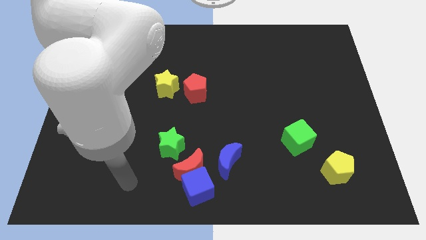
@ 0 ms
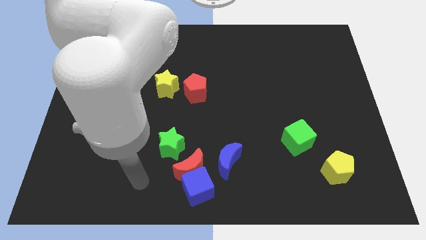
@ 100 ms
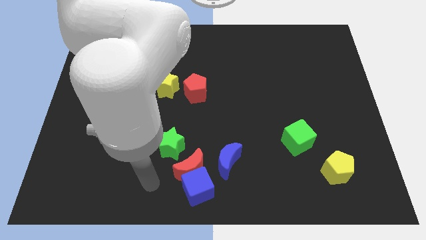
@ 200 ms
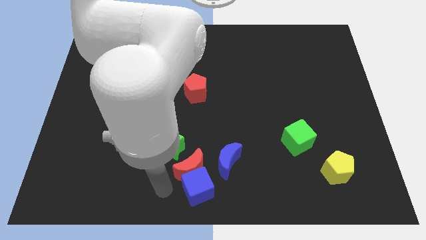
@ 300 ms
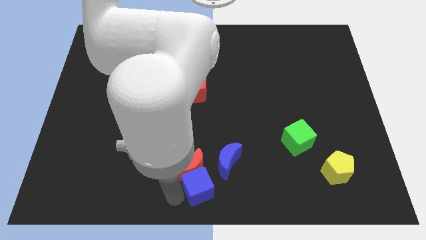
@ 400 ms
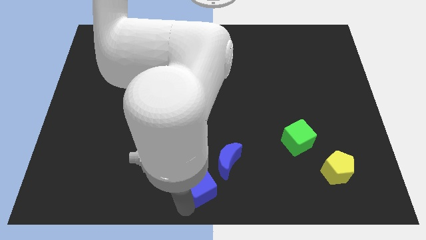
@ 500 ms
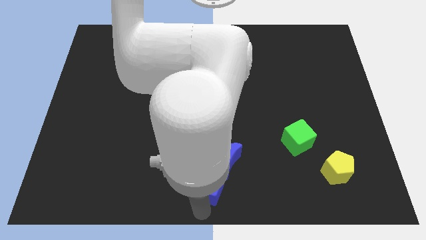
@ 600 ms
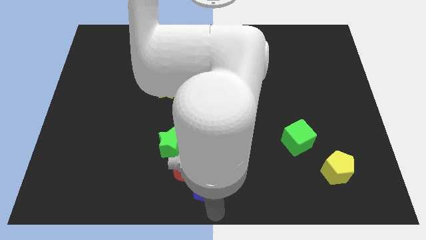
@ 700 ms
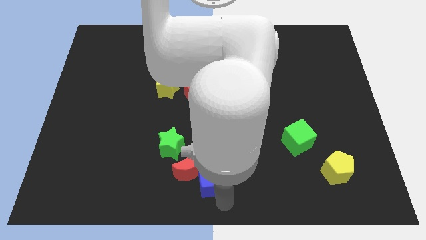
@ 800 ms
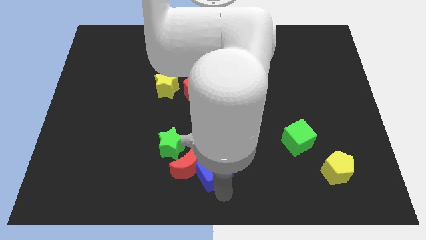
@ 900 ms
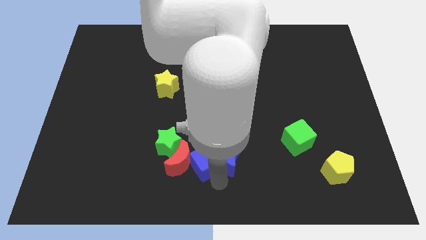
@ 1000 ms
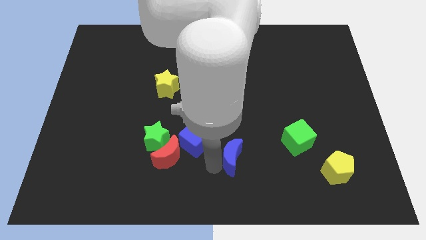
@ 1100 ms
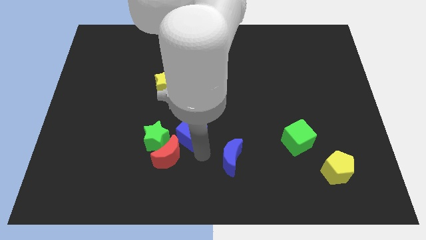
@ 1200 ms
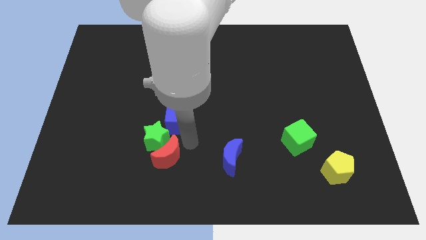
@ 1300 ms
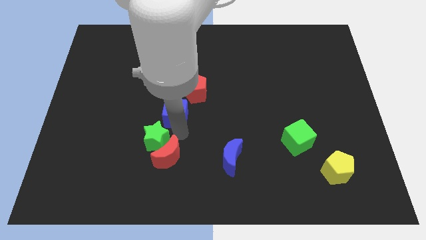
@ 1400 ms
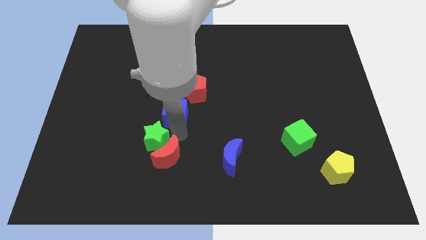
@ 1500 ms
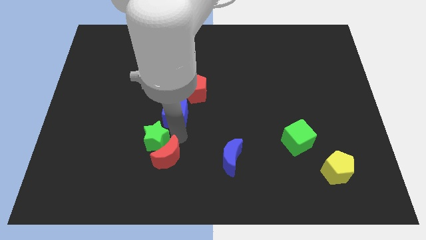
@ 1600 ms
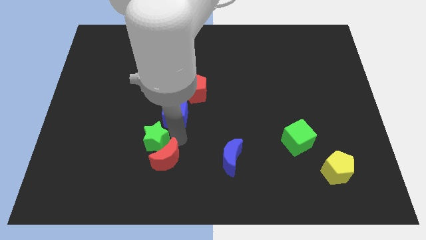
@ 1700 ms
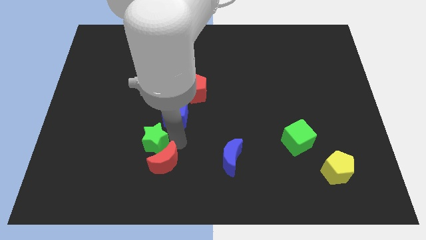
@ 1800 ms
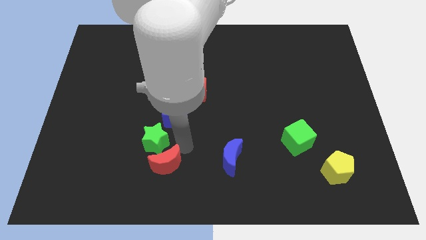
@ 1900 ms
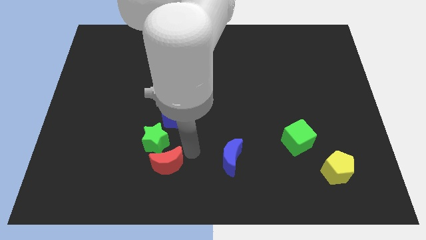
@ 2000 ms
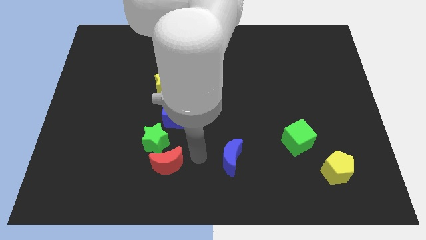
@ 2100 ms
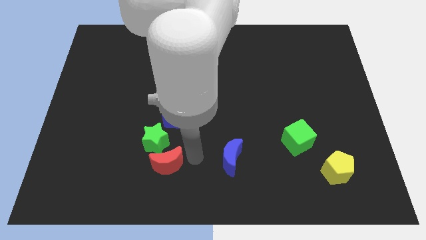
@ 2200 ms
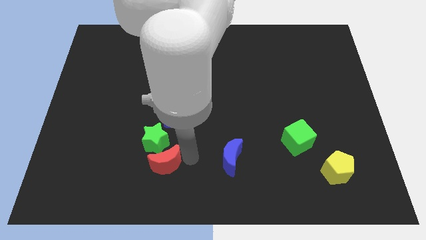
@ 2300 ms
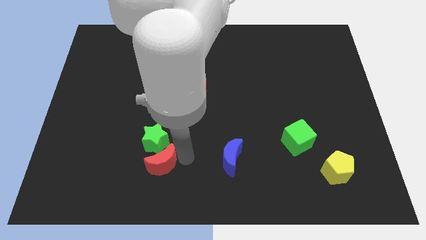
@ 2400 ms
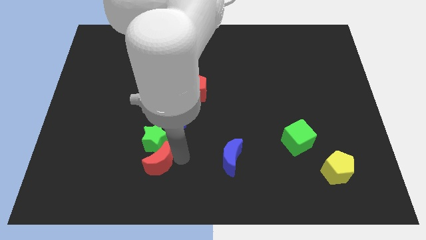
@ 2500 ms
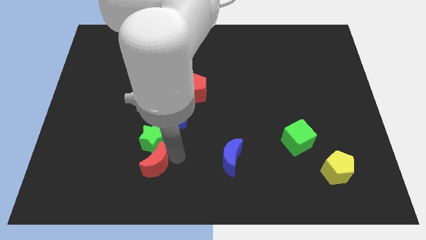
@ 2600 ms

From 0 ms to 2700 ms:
push the red moon left slightly

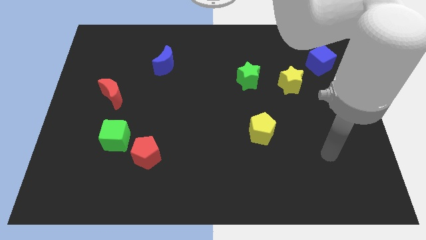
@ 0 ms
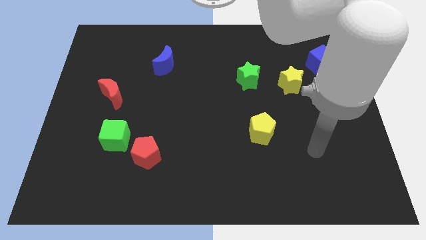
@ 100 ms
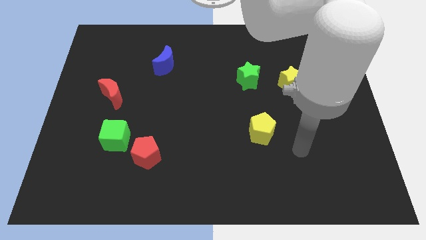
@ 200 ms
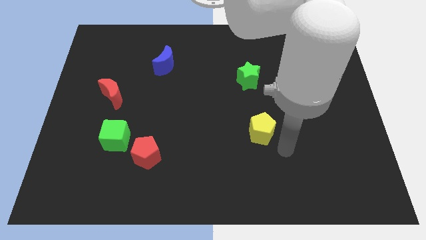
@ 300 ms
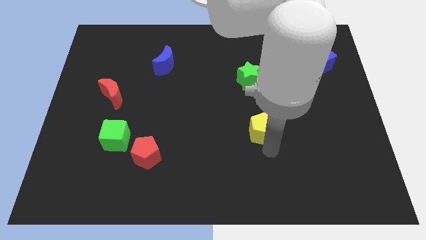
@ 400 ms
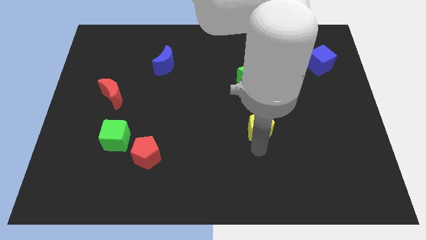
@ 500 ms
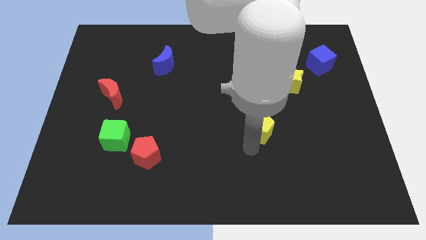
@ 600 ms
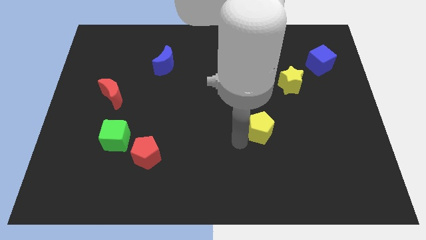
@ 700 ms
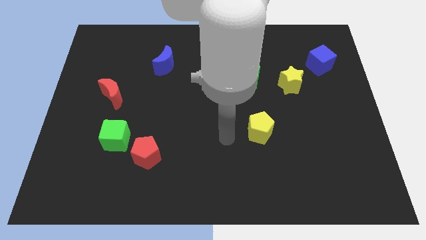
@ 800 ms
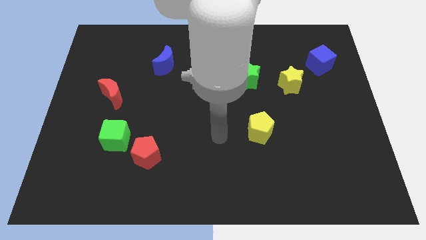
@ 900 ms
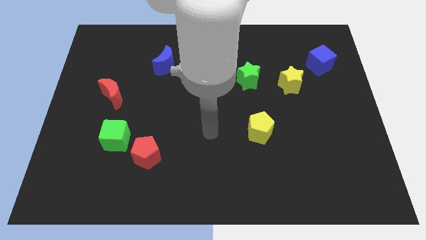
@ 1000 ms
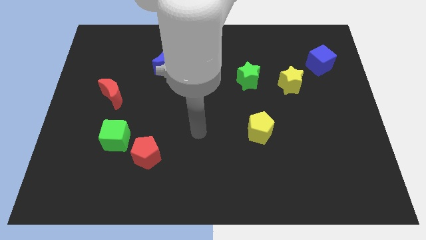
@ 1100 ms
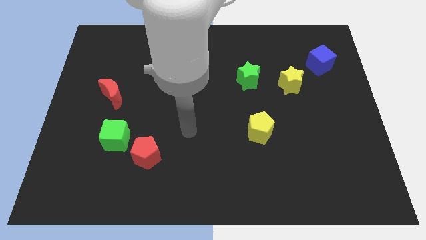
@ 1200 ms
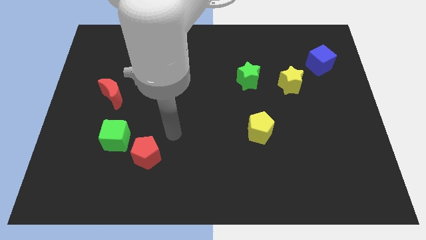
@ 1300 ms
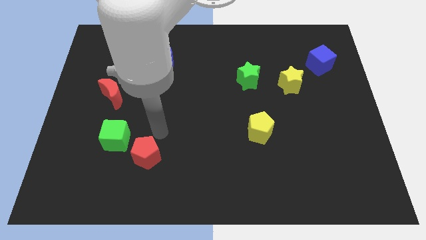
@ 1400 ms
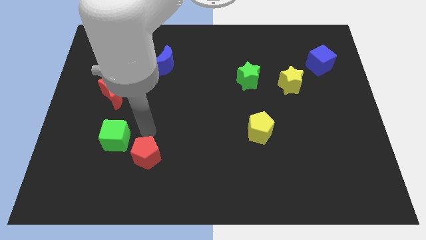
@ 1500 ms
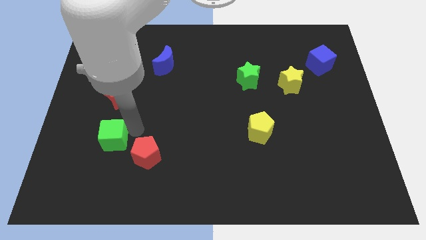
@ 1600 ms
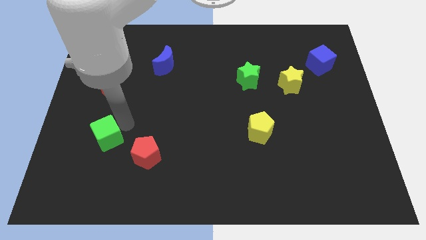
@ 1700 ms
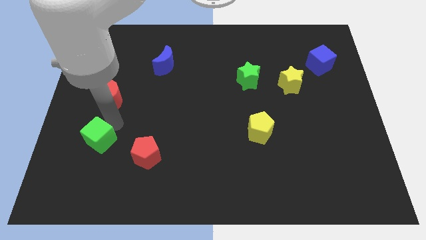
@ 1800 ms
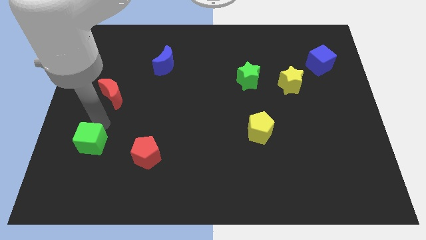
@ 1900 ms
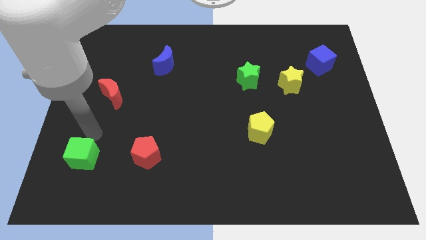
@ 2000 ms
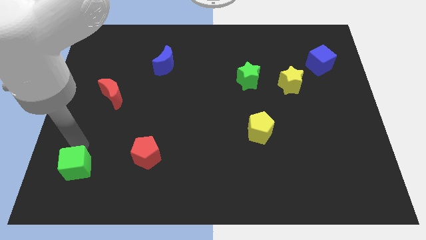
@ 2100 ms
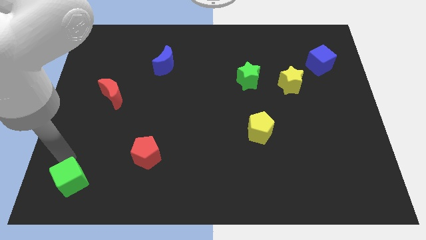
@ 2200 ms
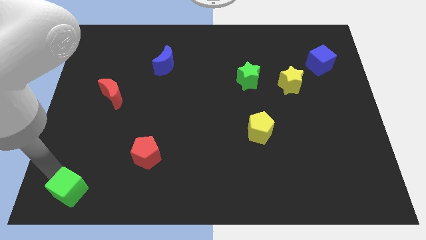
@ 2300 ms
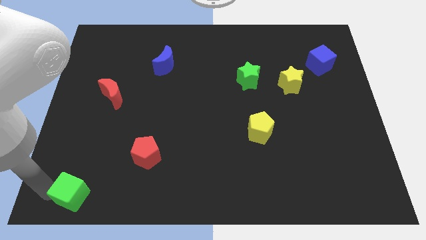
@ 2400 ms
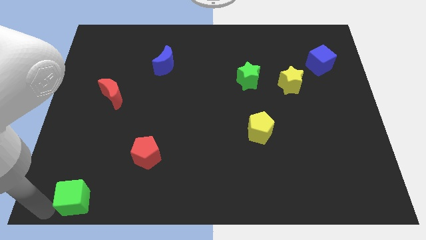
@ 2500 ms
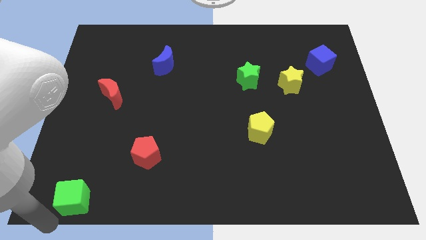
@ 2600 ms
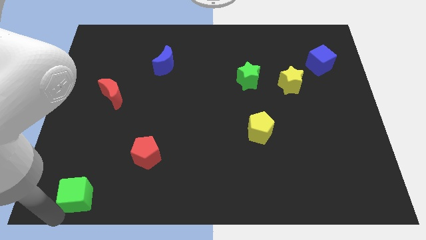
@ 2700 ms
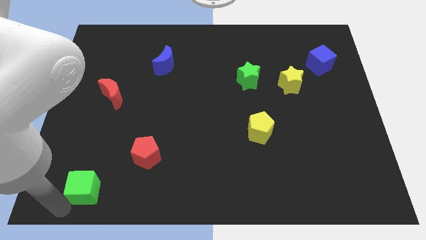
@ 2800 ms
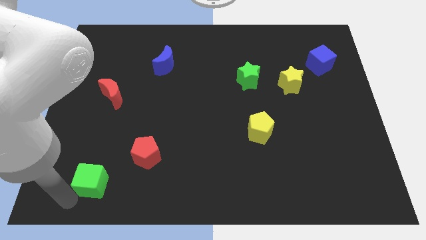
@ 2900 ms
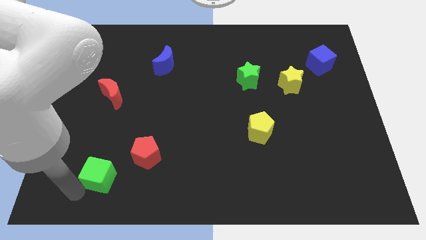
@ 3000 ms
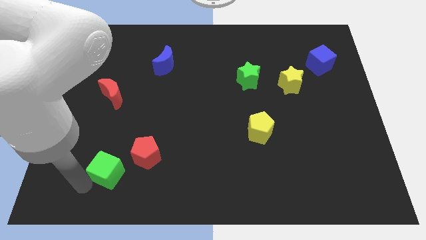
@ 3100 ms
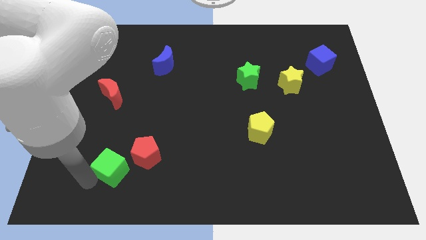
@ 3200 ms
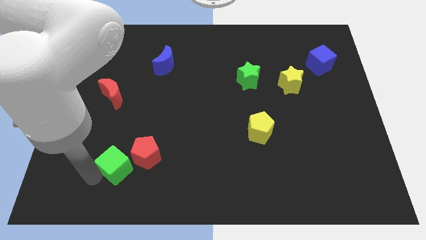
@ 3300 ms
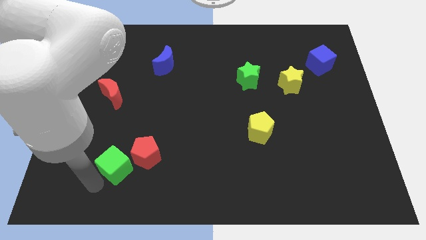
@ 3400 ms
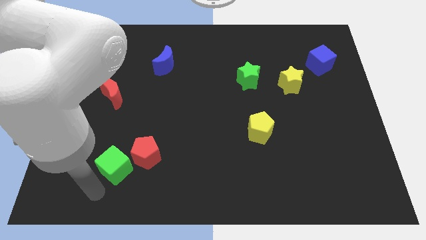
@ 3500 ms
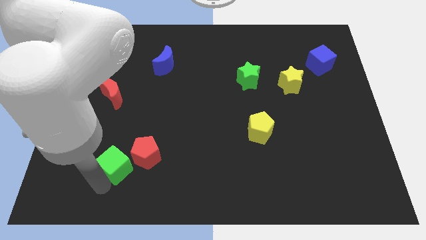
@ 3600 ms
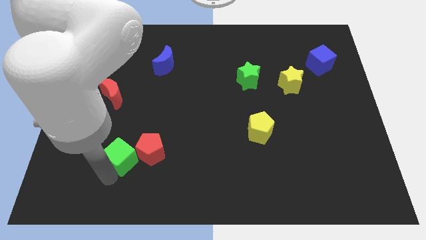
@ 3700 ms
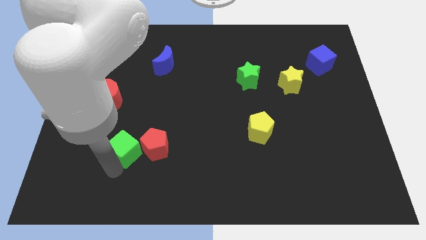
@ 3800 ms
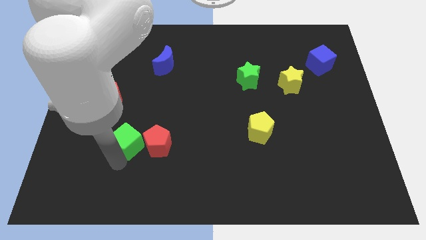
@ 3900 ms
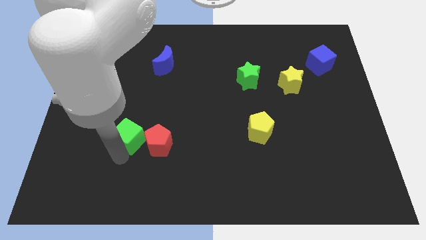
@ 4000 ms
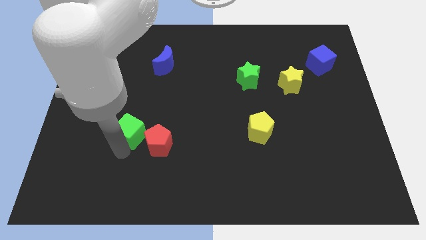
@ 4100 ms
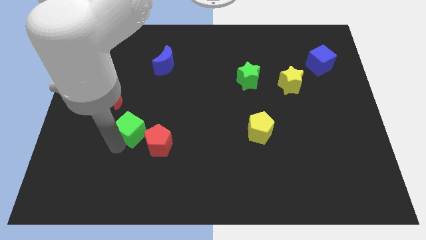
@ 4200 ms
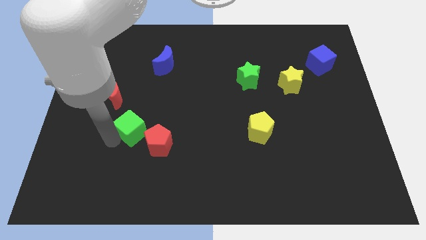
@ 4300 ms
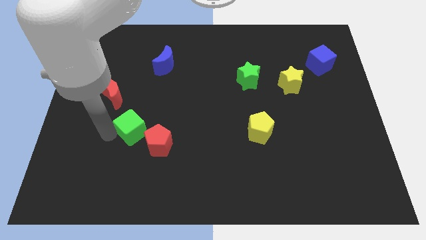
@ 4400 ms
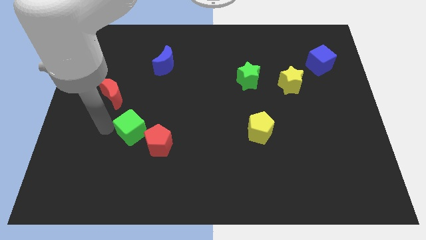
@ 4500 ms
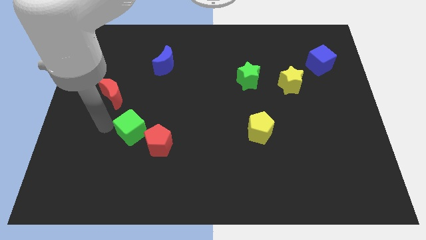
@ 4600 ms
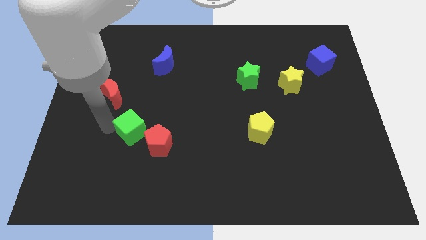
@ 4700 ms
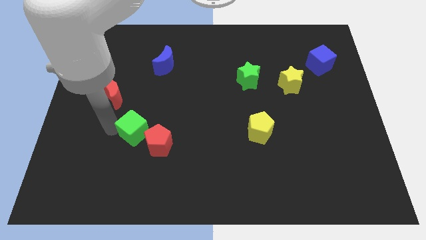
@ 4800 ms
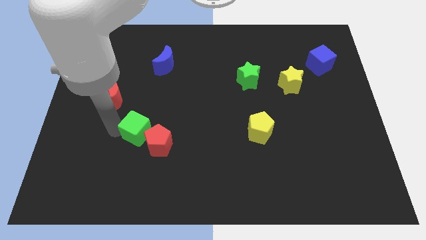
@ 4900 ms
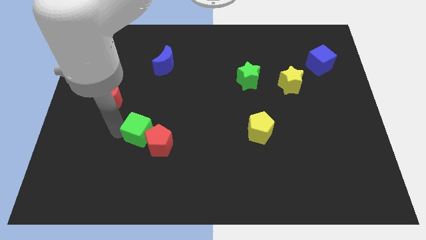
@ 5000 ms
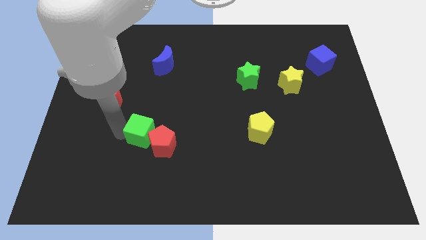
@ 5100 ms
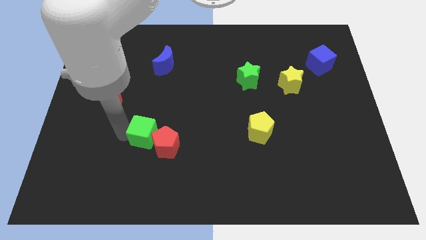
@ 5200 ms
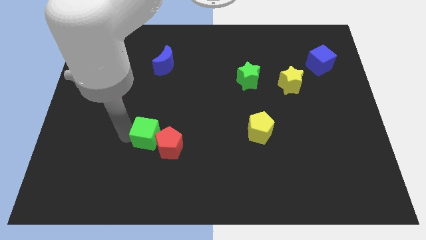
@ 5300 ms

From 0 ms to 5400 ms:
slide the green cube to the right slightly
